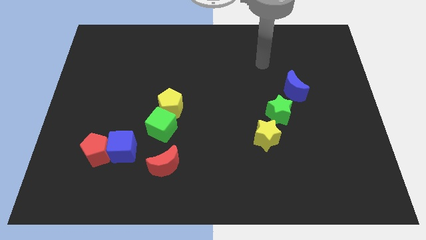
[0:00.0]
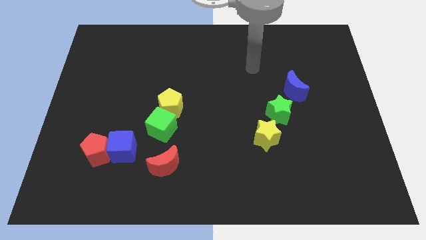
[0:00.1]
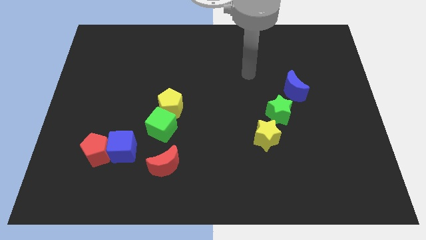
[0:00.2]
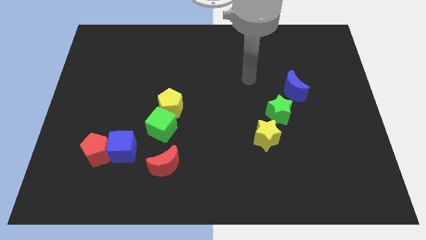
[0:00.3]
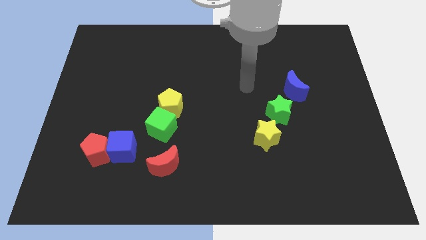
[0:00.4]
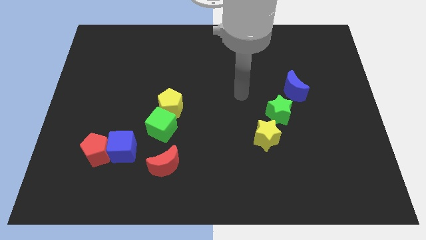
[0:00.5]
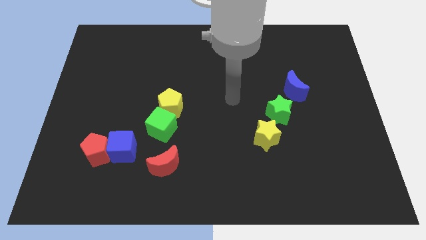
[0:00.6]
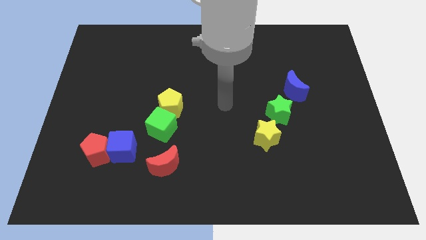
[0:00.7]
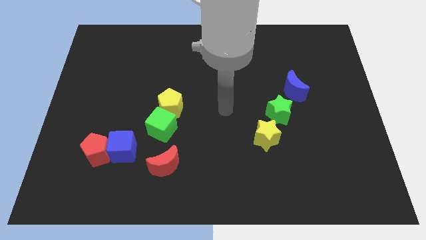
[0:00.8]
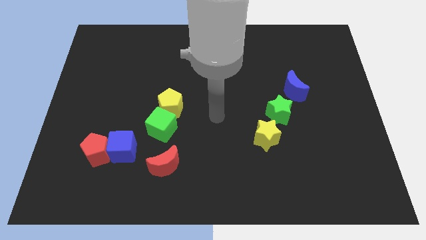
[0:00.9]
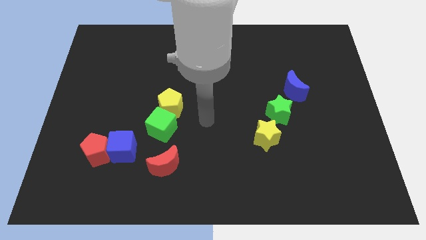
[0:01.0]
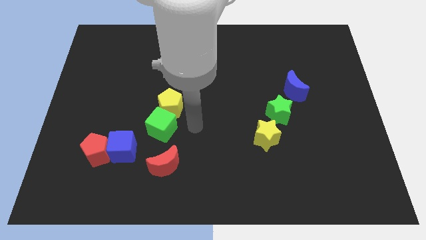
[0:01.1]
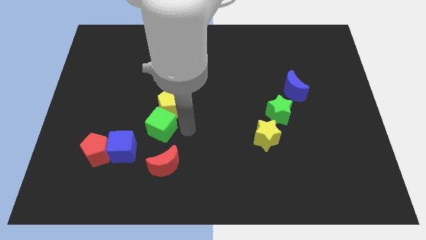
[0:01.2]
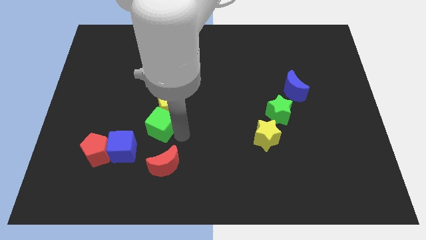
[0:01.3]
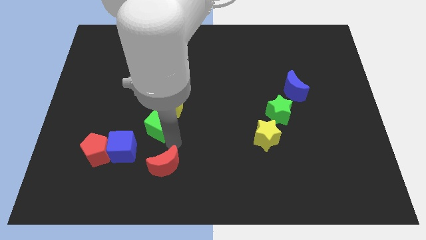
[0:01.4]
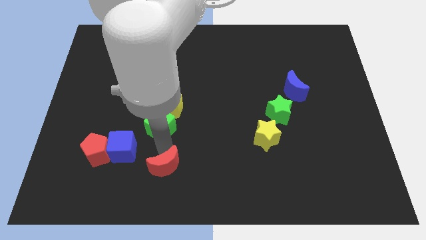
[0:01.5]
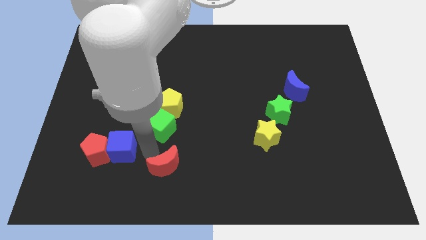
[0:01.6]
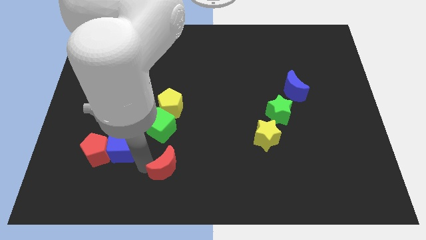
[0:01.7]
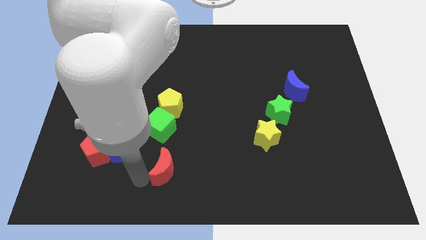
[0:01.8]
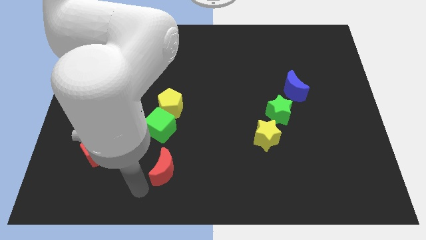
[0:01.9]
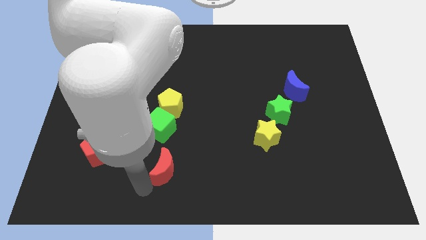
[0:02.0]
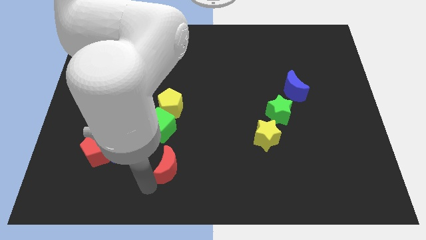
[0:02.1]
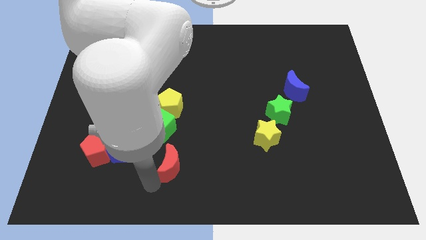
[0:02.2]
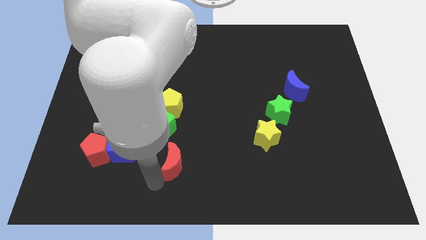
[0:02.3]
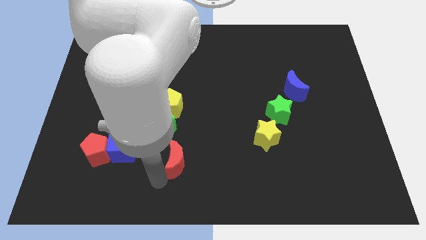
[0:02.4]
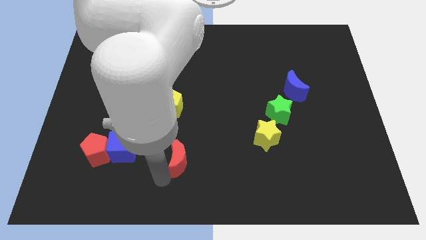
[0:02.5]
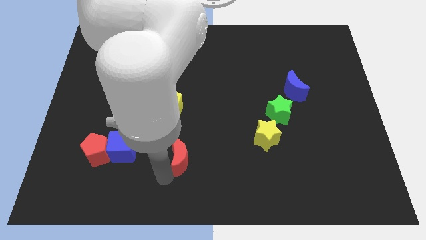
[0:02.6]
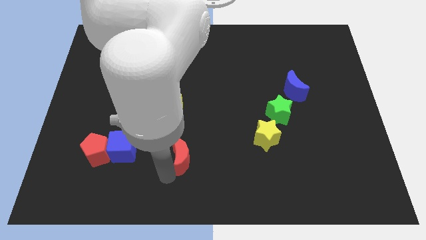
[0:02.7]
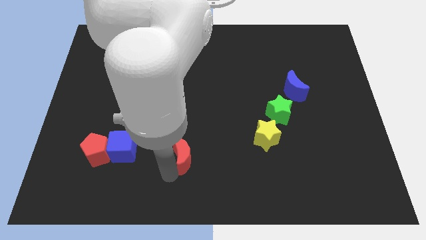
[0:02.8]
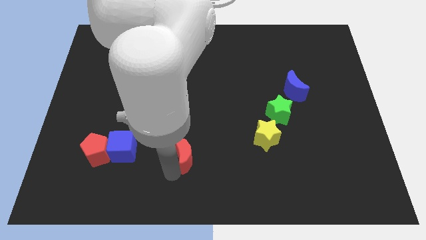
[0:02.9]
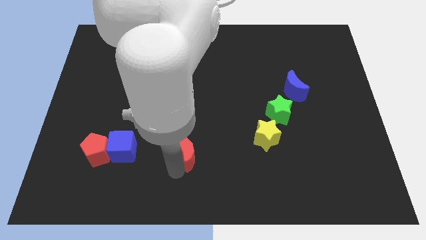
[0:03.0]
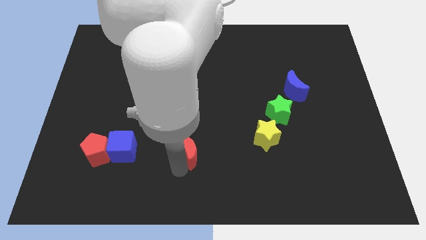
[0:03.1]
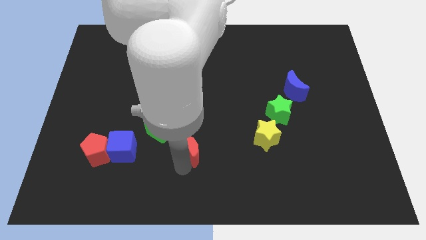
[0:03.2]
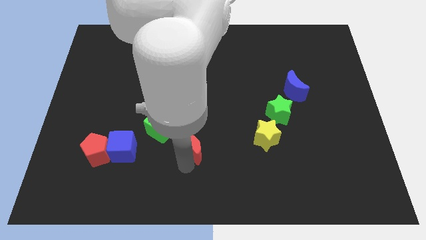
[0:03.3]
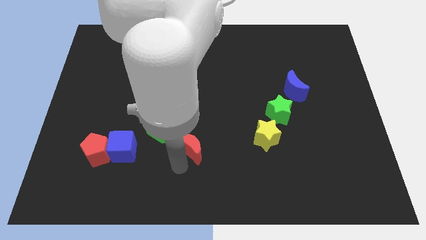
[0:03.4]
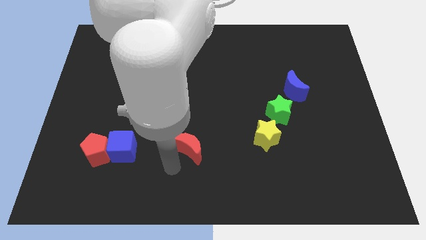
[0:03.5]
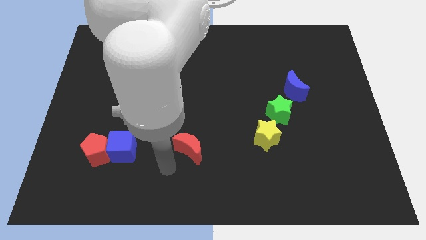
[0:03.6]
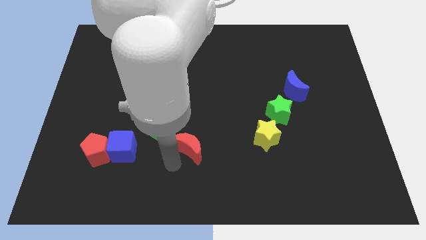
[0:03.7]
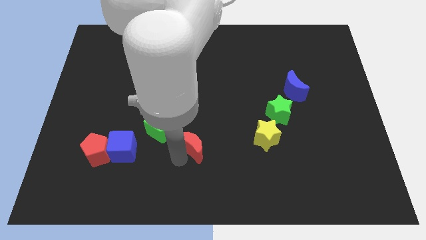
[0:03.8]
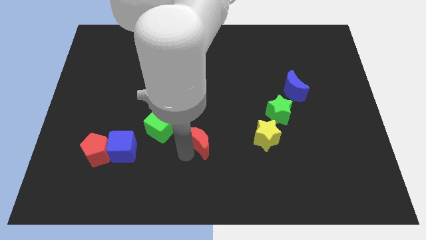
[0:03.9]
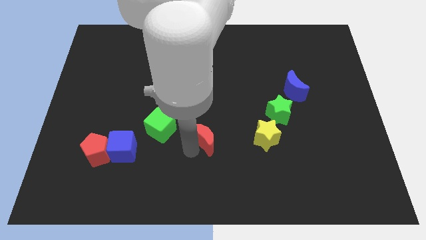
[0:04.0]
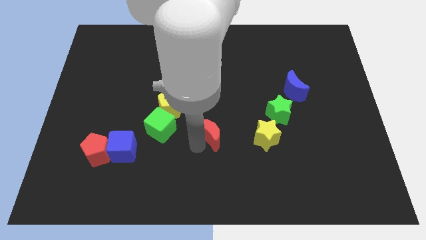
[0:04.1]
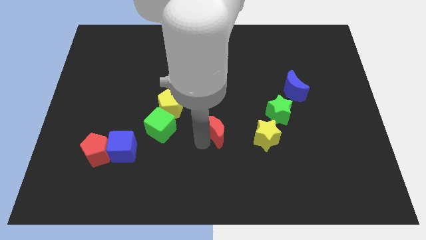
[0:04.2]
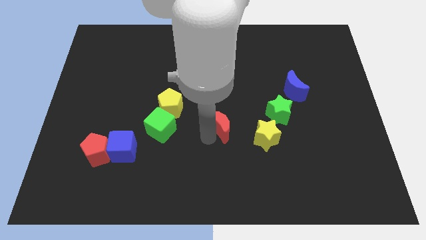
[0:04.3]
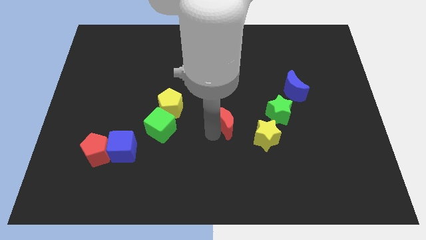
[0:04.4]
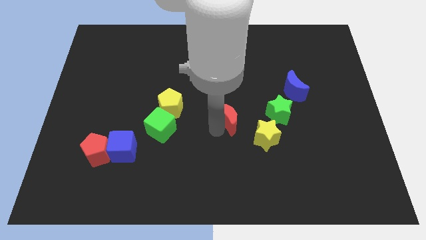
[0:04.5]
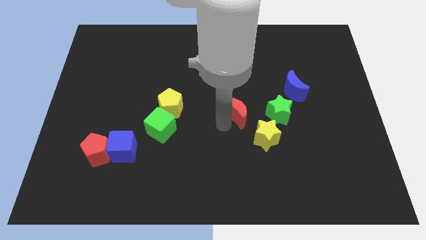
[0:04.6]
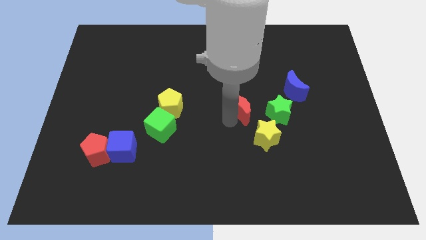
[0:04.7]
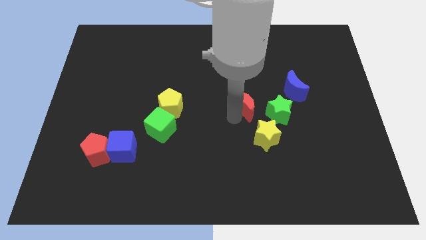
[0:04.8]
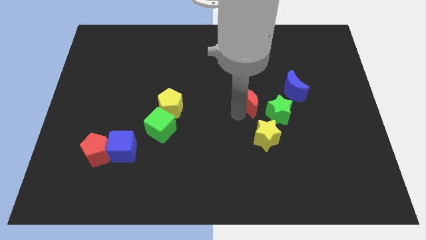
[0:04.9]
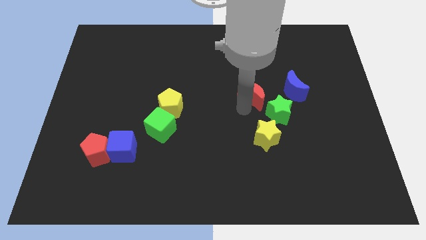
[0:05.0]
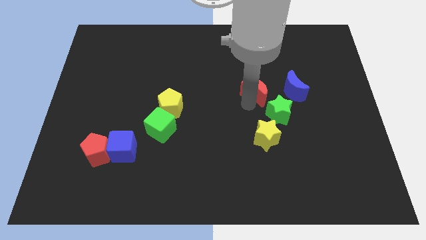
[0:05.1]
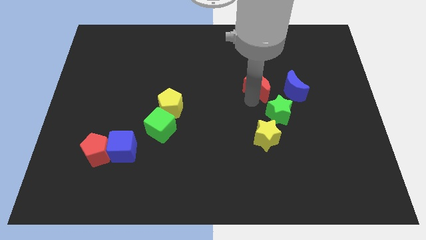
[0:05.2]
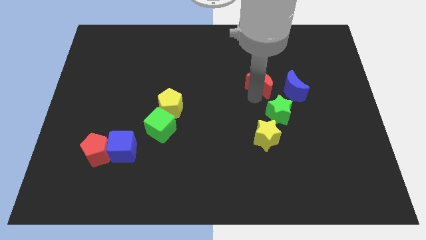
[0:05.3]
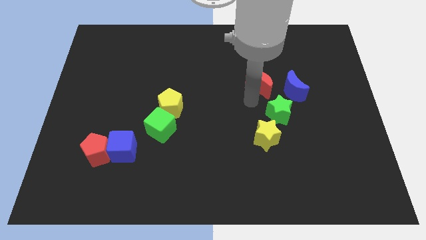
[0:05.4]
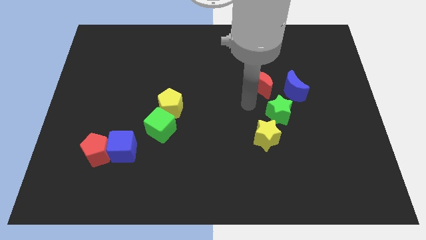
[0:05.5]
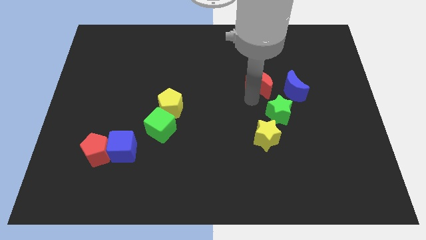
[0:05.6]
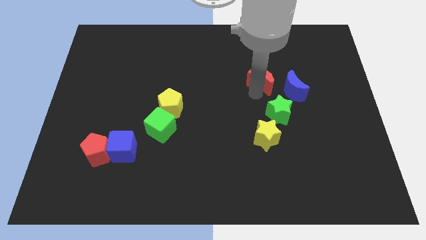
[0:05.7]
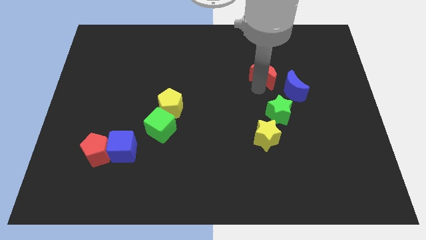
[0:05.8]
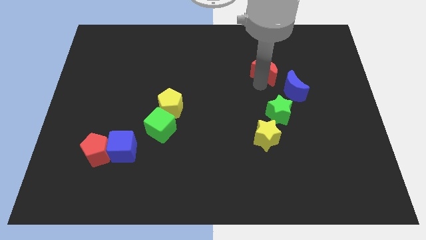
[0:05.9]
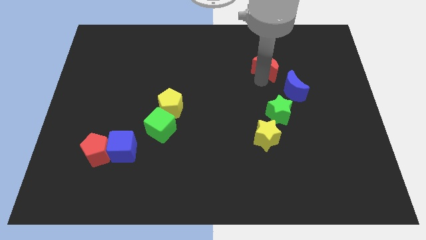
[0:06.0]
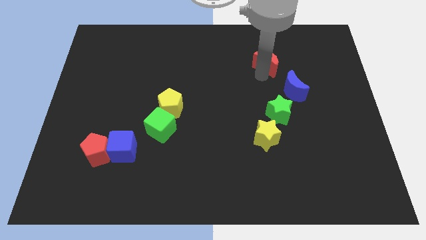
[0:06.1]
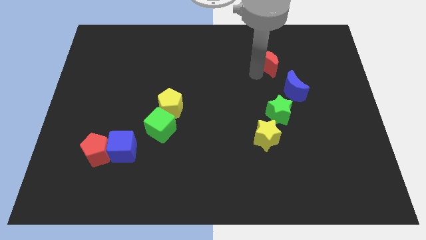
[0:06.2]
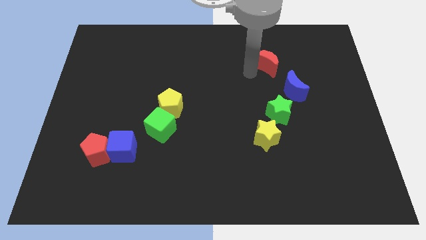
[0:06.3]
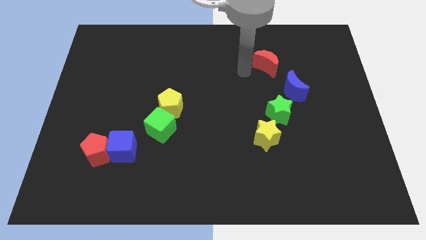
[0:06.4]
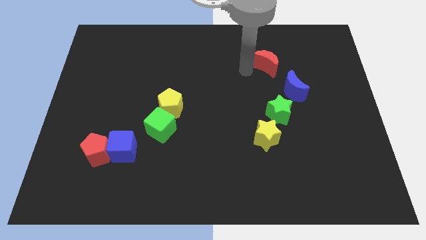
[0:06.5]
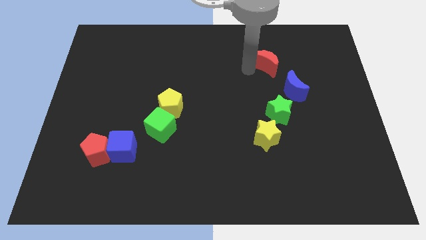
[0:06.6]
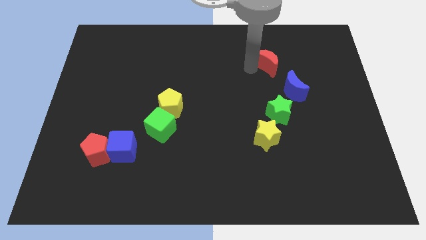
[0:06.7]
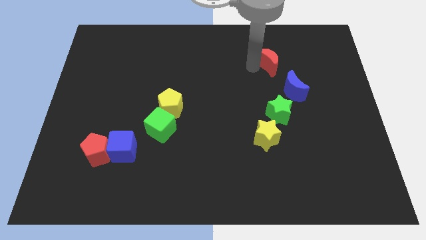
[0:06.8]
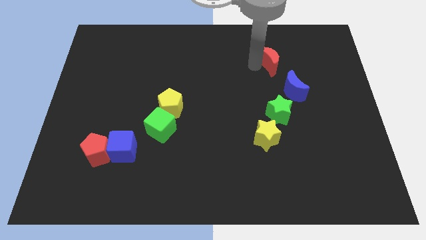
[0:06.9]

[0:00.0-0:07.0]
push the red moon to the top side of the blue moon

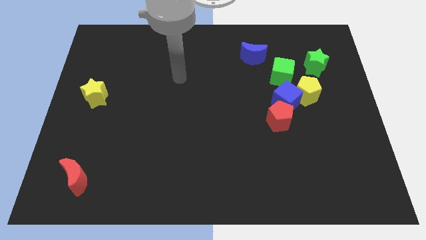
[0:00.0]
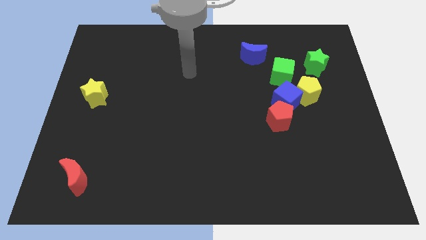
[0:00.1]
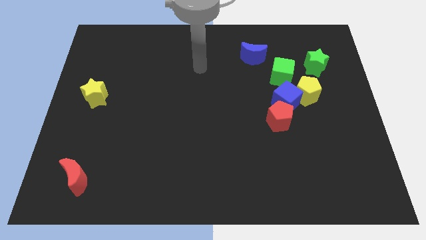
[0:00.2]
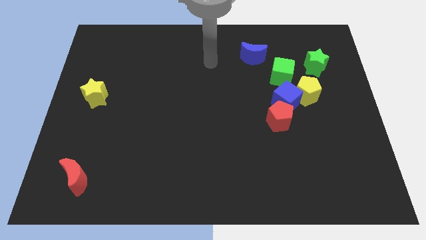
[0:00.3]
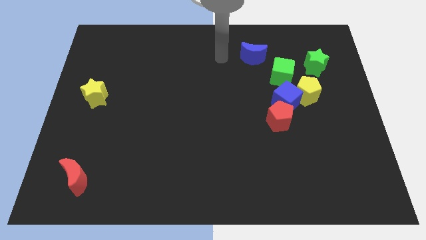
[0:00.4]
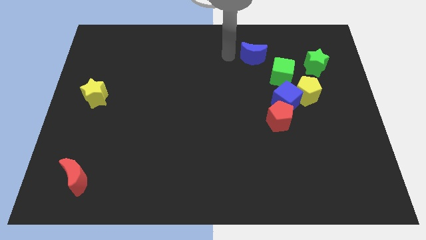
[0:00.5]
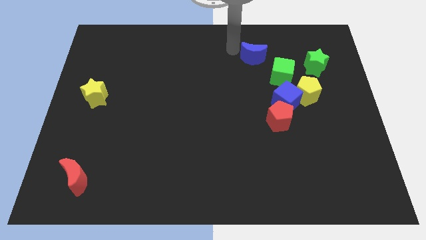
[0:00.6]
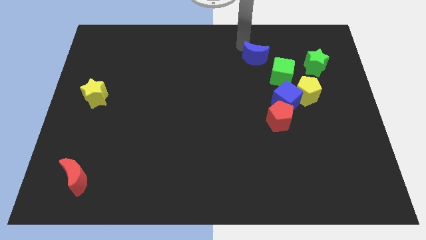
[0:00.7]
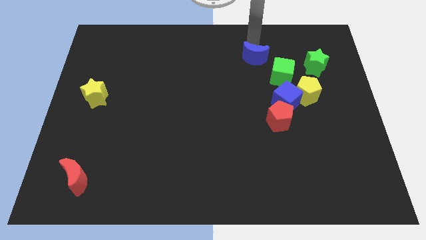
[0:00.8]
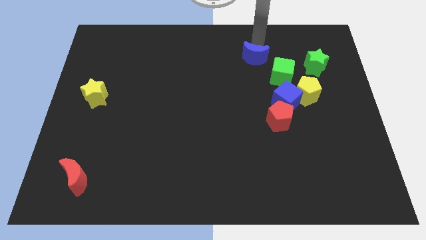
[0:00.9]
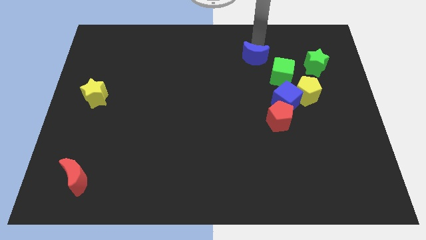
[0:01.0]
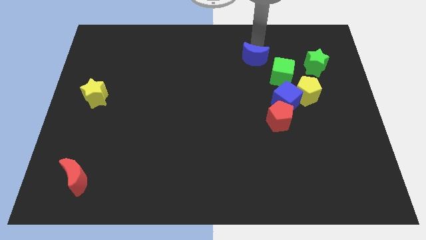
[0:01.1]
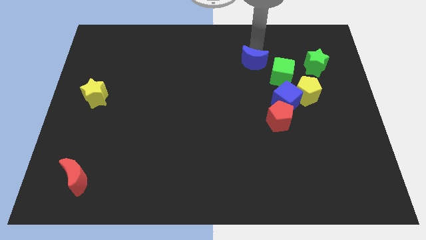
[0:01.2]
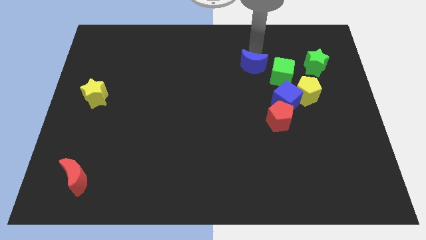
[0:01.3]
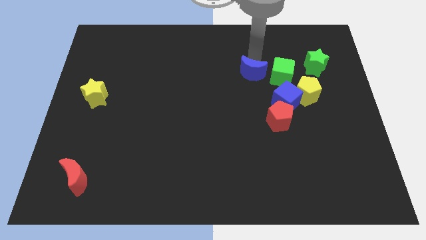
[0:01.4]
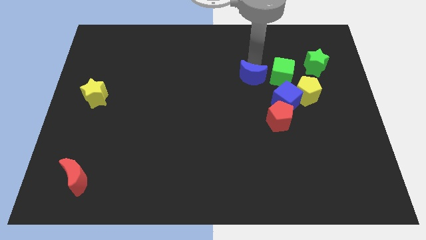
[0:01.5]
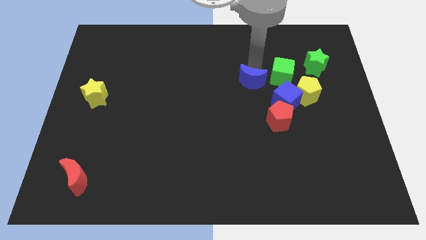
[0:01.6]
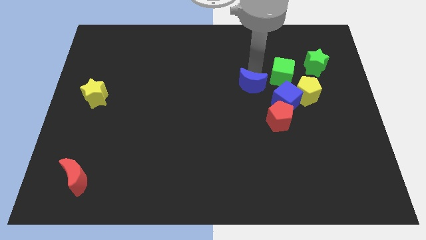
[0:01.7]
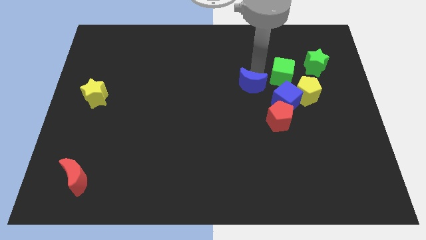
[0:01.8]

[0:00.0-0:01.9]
push the blue moon just left of the blue cube
